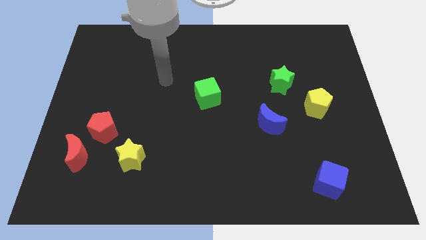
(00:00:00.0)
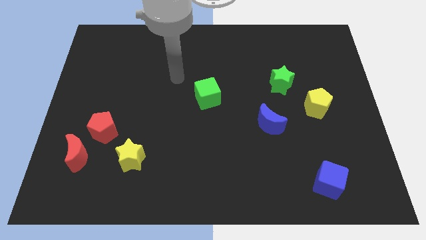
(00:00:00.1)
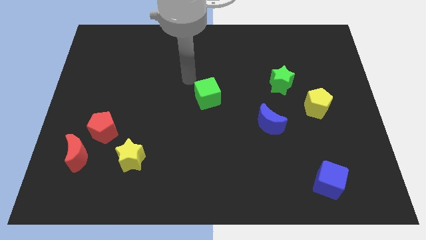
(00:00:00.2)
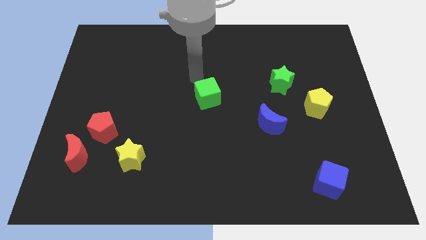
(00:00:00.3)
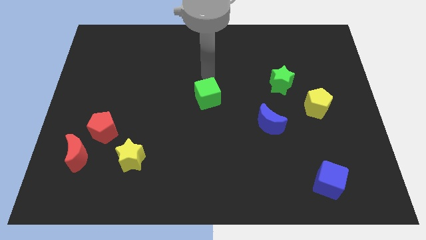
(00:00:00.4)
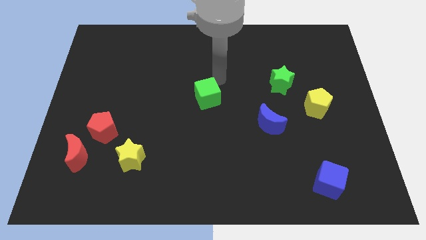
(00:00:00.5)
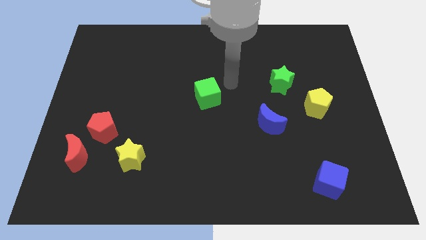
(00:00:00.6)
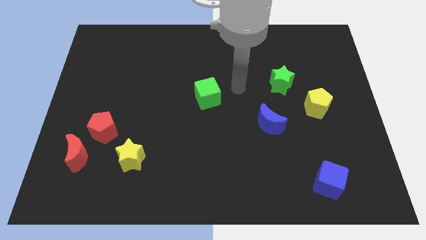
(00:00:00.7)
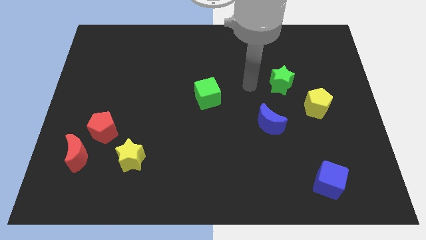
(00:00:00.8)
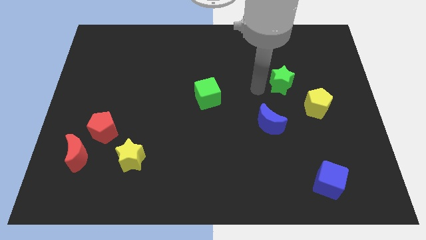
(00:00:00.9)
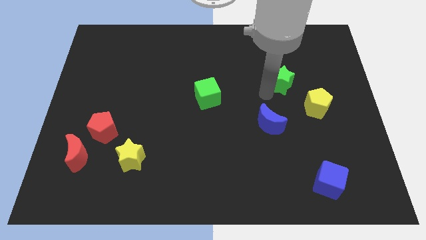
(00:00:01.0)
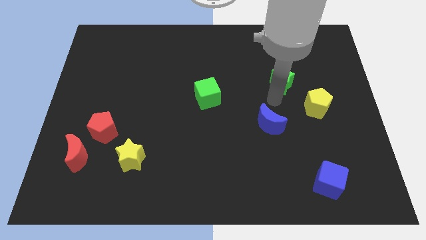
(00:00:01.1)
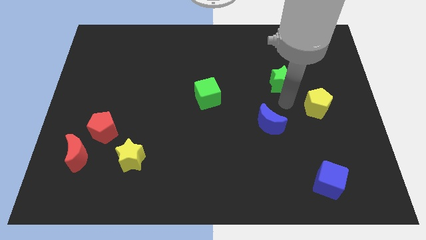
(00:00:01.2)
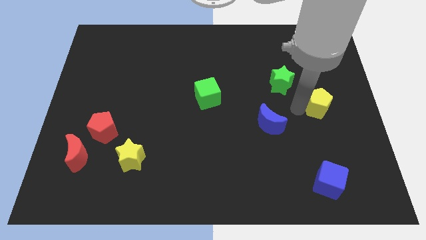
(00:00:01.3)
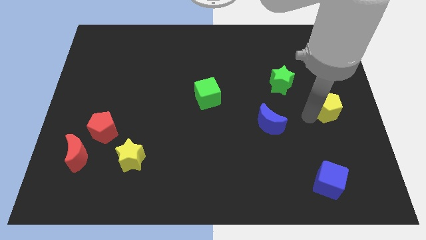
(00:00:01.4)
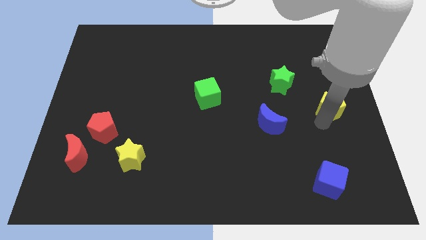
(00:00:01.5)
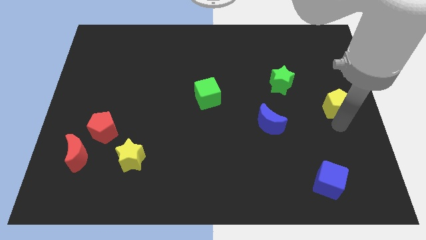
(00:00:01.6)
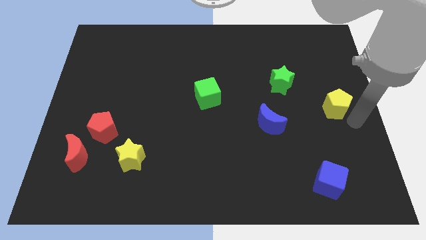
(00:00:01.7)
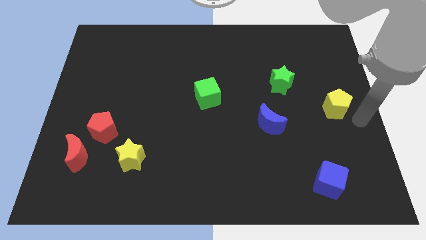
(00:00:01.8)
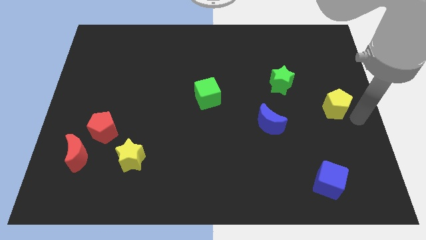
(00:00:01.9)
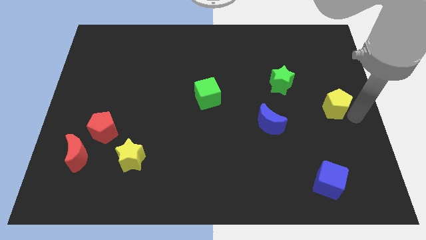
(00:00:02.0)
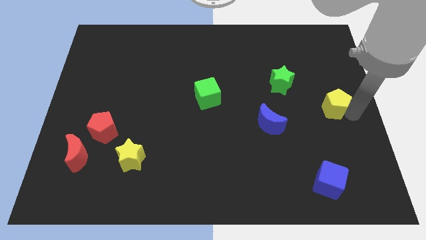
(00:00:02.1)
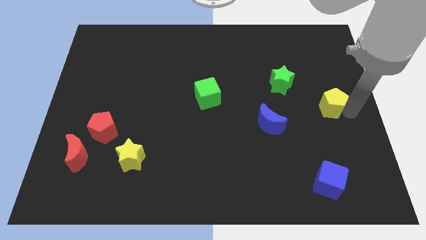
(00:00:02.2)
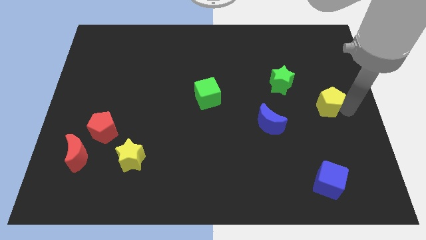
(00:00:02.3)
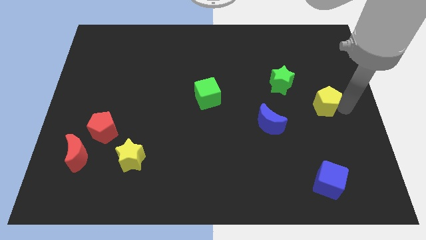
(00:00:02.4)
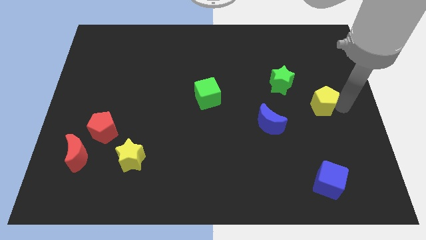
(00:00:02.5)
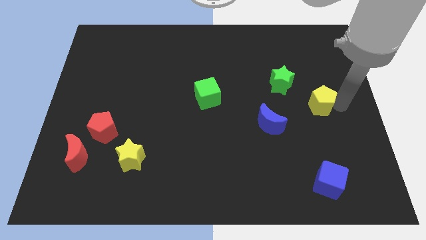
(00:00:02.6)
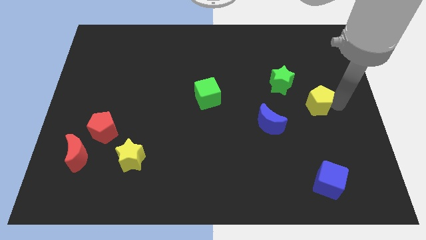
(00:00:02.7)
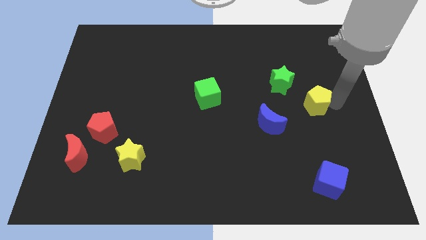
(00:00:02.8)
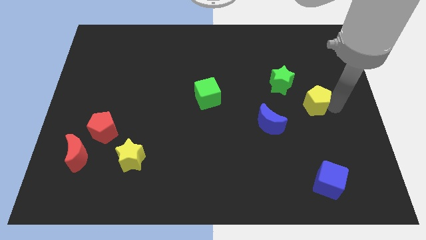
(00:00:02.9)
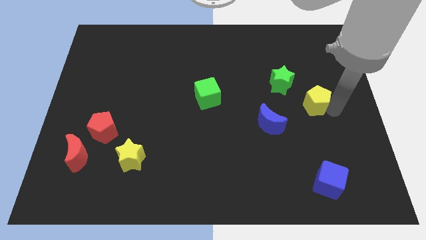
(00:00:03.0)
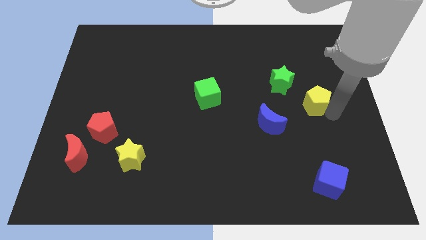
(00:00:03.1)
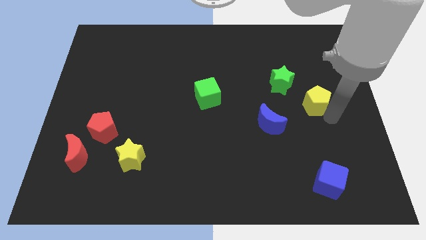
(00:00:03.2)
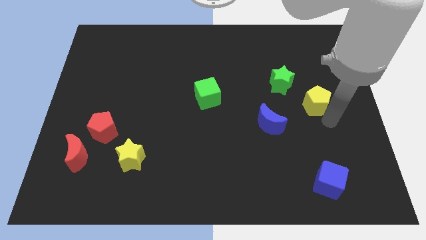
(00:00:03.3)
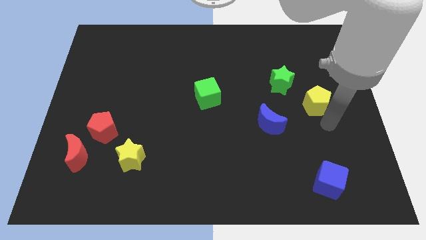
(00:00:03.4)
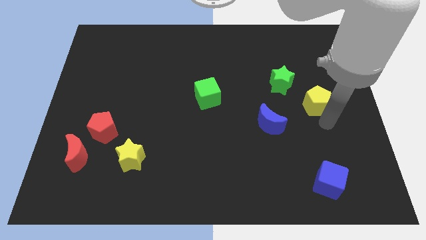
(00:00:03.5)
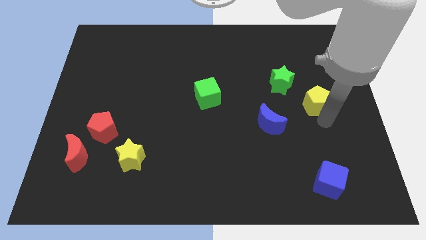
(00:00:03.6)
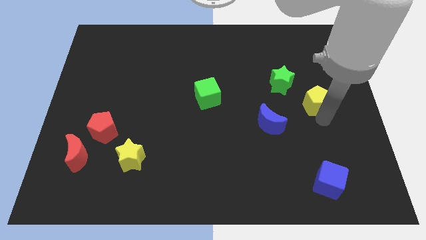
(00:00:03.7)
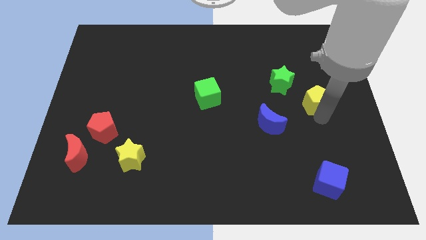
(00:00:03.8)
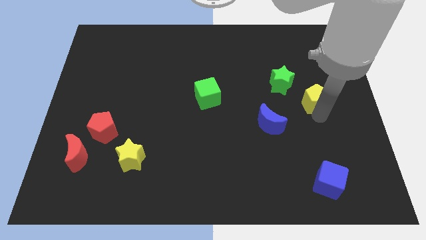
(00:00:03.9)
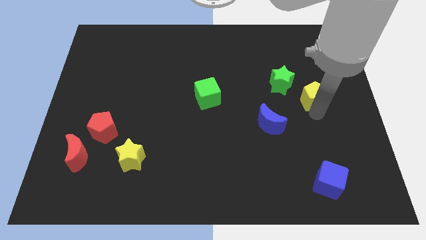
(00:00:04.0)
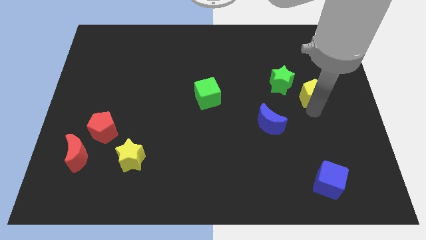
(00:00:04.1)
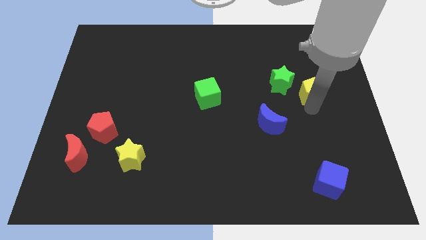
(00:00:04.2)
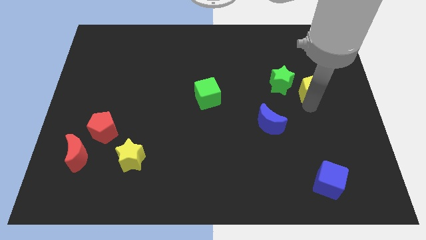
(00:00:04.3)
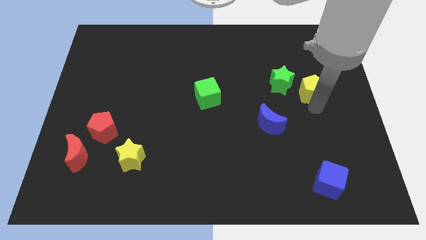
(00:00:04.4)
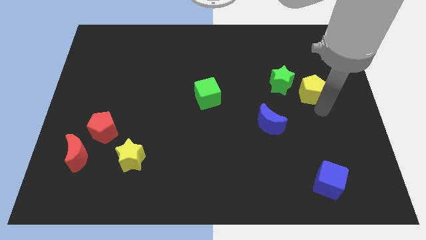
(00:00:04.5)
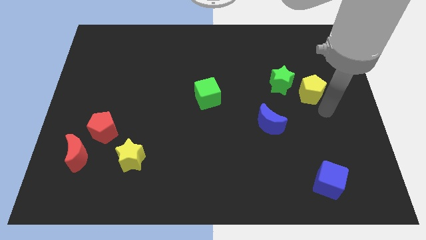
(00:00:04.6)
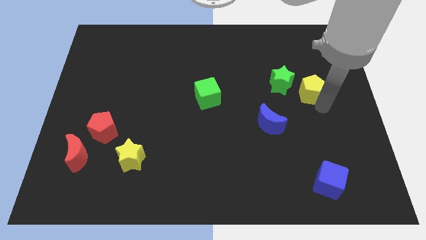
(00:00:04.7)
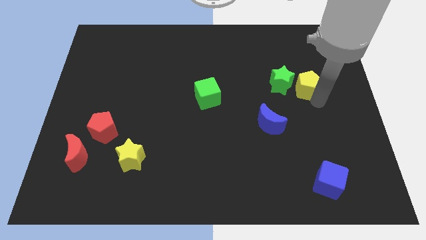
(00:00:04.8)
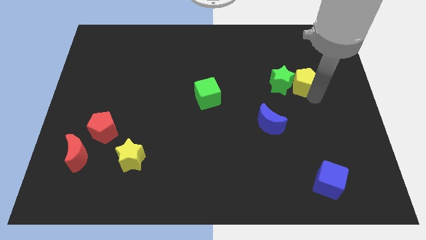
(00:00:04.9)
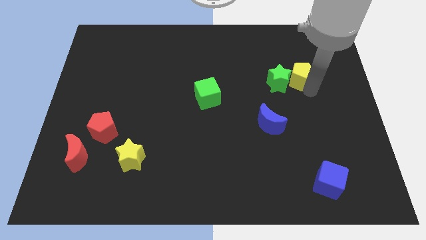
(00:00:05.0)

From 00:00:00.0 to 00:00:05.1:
slightly slide the yellow pentagon up and to the left diagonally

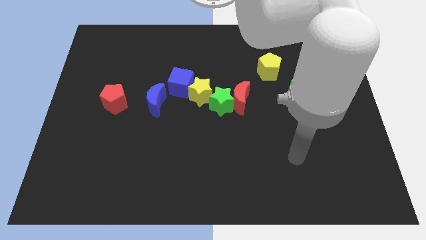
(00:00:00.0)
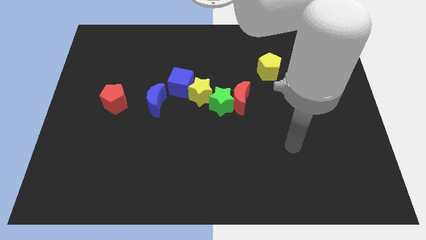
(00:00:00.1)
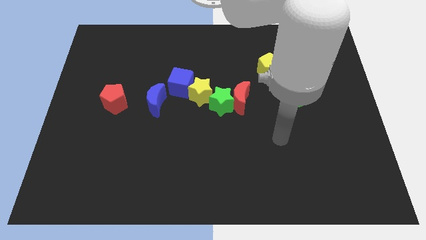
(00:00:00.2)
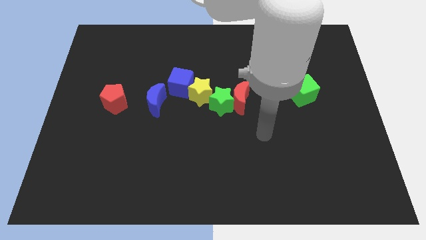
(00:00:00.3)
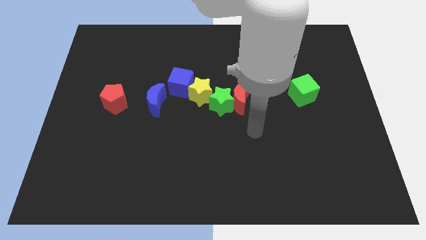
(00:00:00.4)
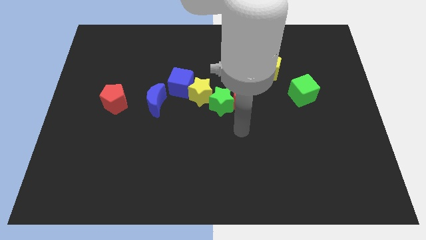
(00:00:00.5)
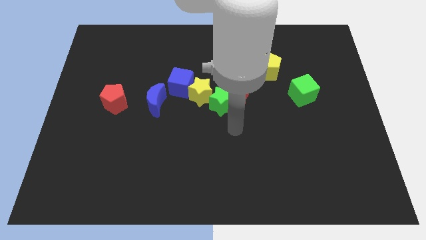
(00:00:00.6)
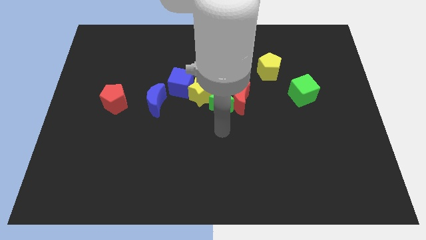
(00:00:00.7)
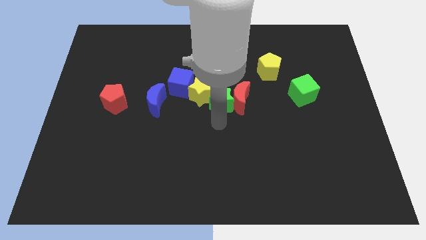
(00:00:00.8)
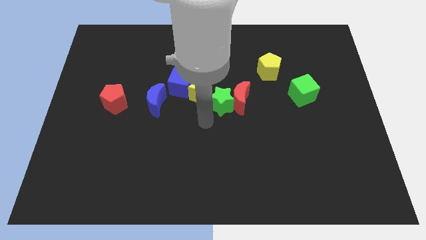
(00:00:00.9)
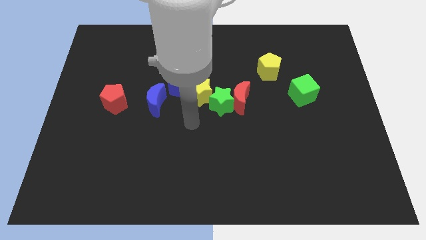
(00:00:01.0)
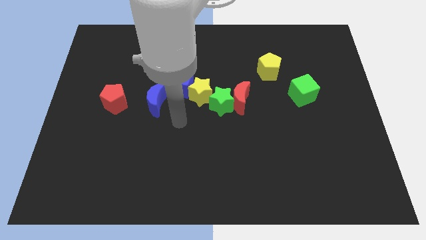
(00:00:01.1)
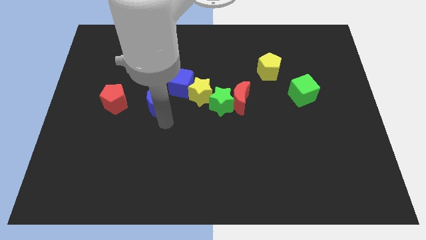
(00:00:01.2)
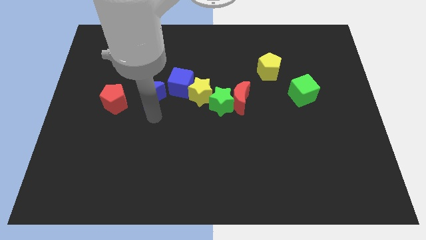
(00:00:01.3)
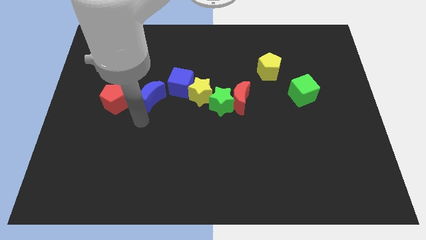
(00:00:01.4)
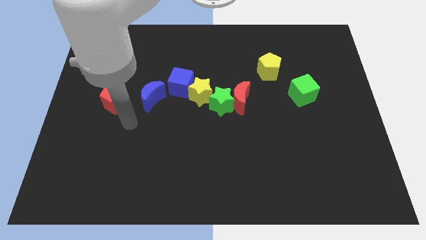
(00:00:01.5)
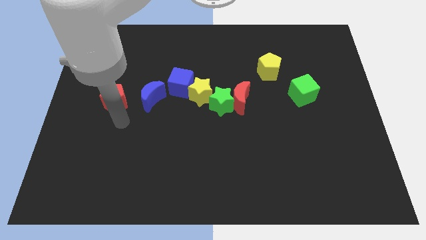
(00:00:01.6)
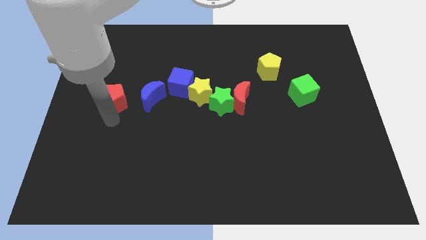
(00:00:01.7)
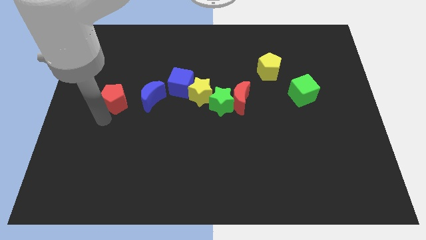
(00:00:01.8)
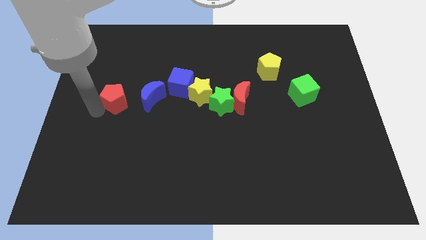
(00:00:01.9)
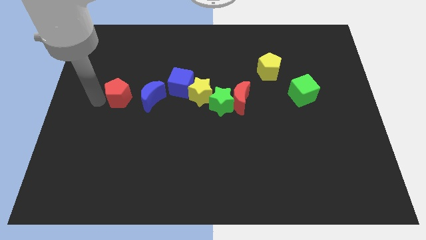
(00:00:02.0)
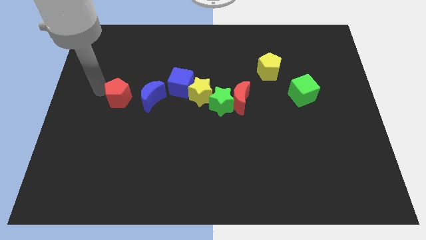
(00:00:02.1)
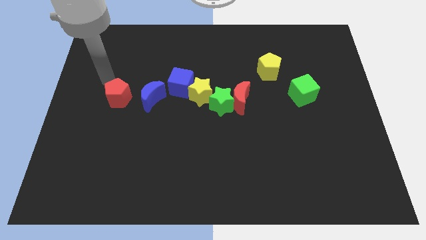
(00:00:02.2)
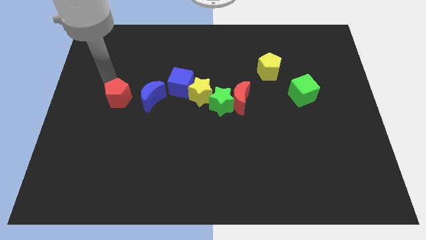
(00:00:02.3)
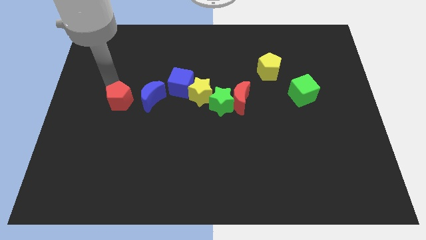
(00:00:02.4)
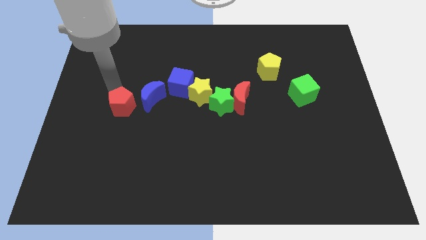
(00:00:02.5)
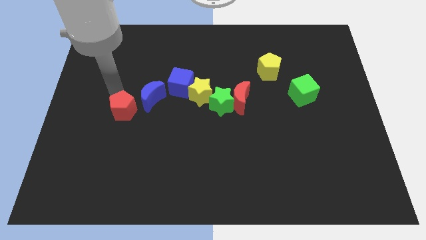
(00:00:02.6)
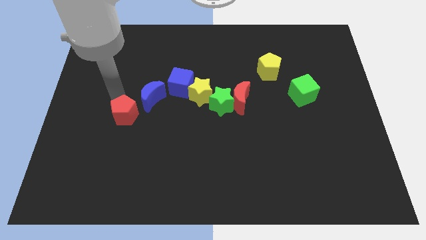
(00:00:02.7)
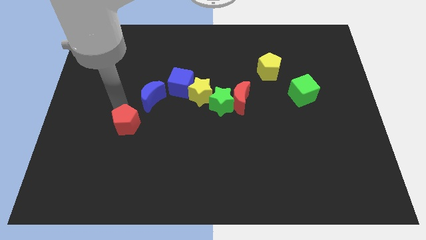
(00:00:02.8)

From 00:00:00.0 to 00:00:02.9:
slightly slide the red pentagon down and right diagonally
